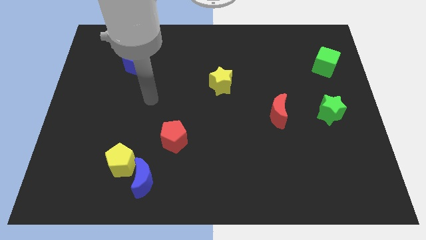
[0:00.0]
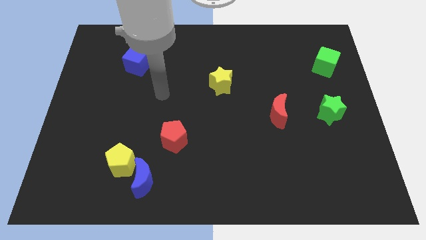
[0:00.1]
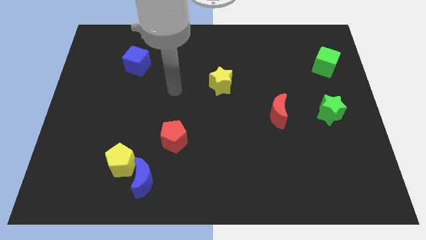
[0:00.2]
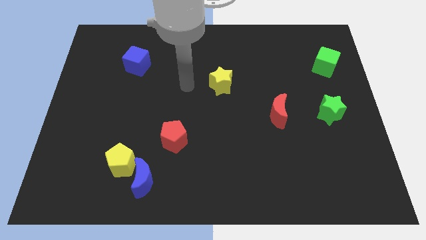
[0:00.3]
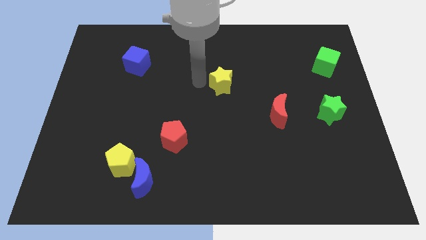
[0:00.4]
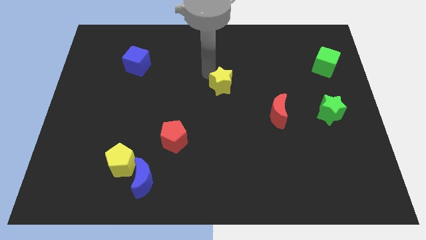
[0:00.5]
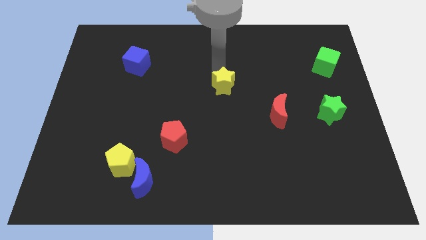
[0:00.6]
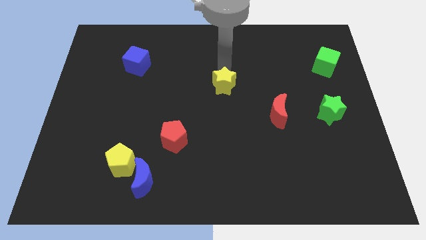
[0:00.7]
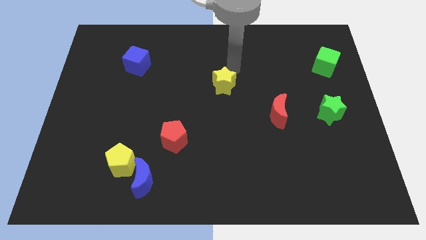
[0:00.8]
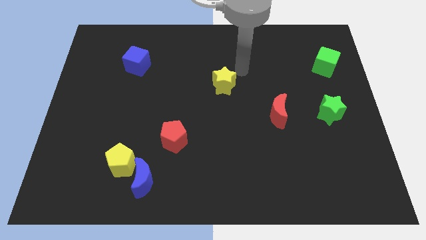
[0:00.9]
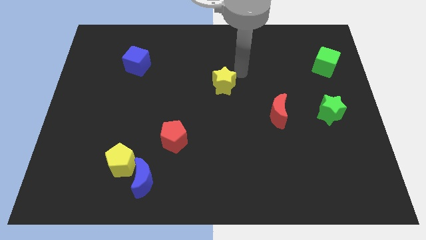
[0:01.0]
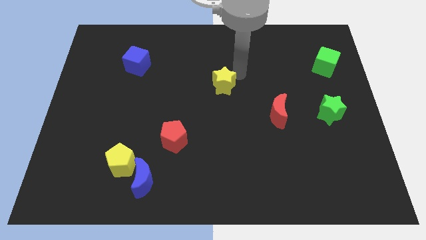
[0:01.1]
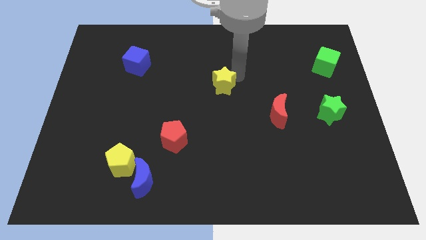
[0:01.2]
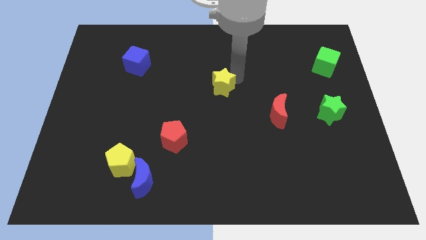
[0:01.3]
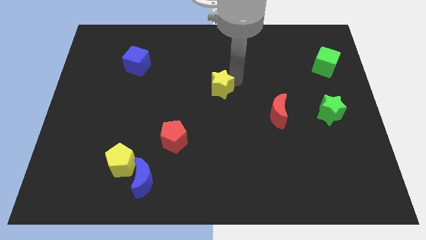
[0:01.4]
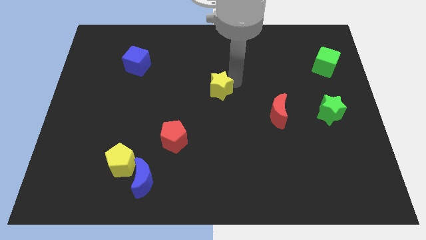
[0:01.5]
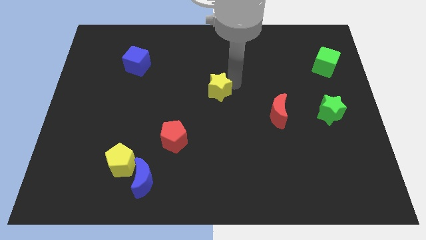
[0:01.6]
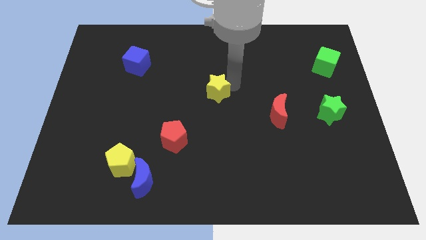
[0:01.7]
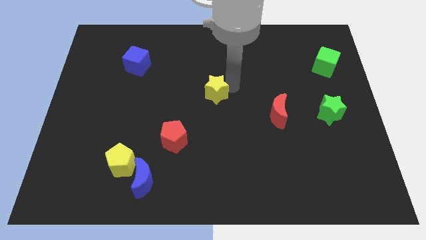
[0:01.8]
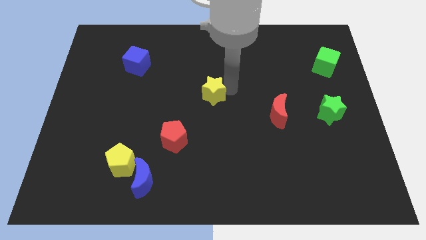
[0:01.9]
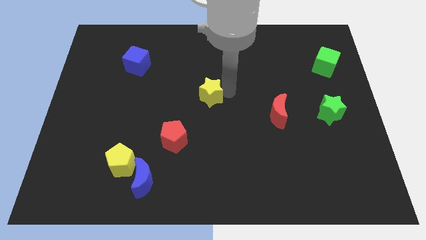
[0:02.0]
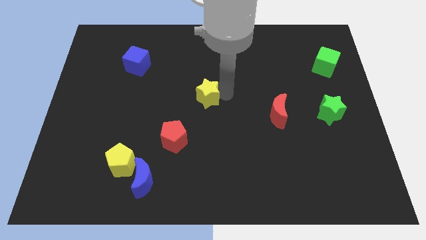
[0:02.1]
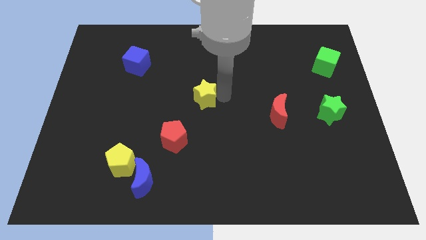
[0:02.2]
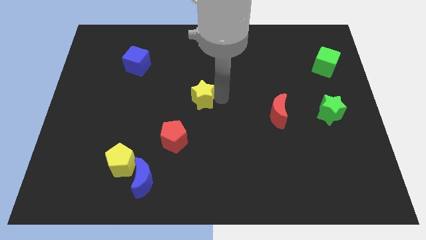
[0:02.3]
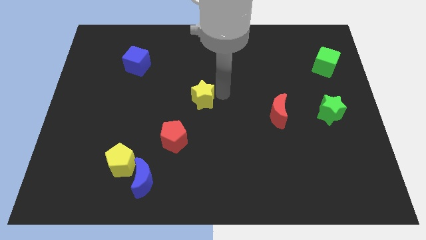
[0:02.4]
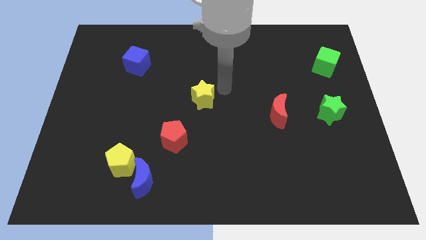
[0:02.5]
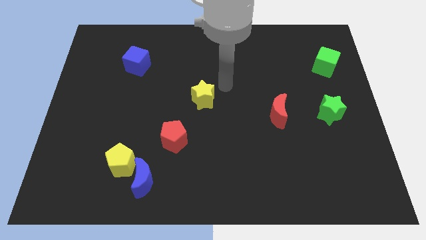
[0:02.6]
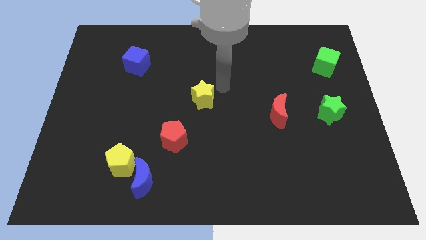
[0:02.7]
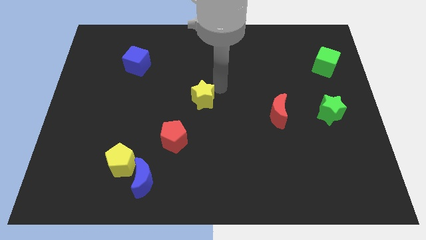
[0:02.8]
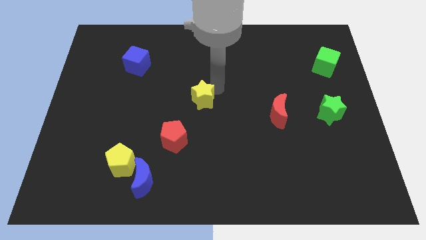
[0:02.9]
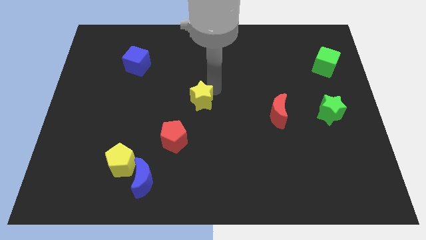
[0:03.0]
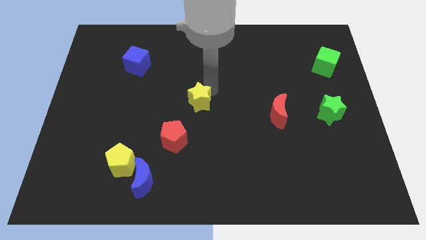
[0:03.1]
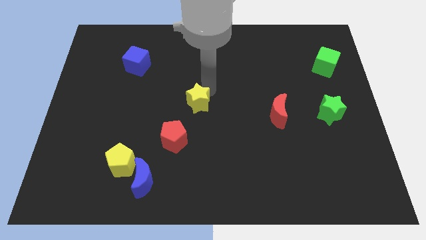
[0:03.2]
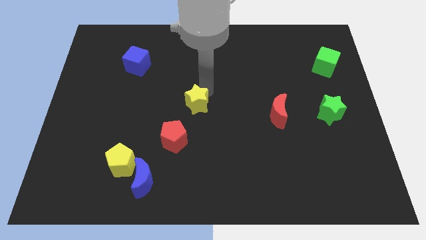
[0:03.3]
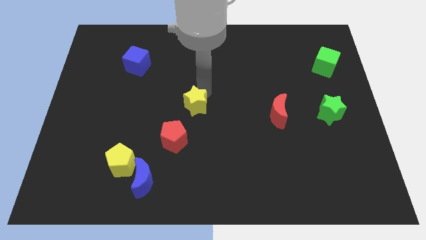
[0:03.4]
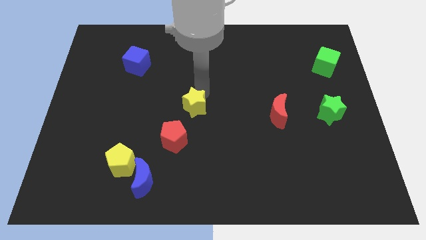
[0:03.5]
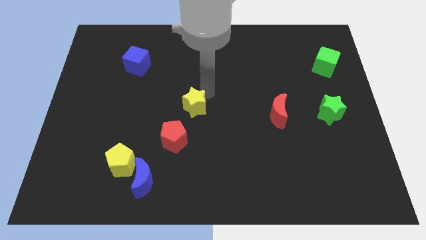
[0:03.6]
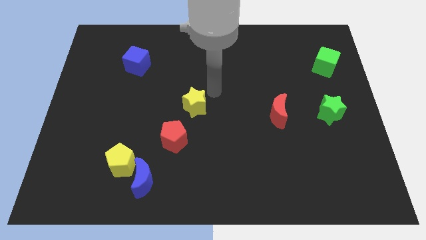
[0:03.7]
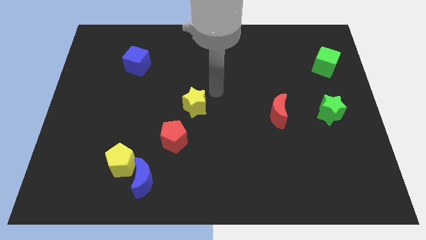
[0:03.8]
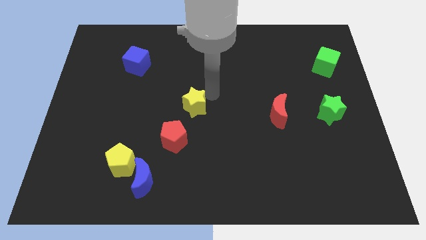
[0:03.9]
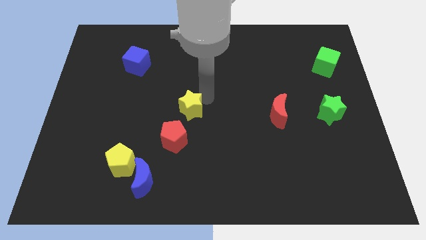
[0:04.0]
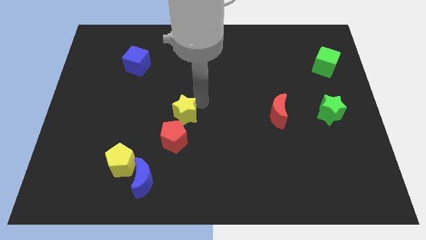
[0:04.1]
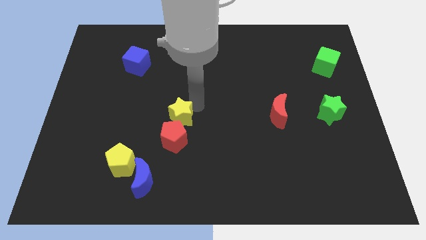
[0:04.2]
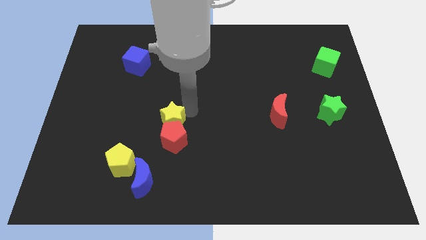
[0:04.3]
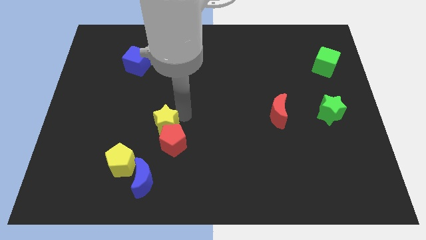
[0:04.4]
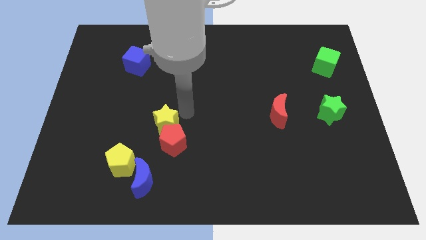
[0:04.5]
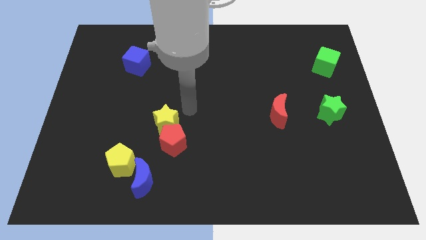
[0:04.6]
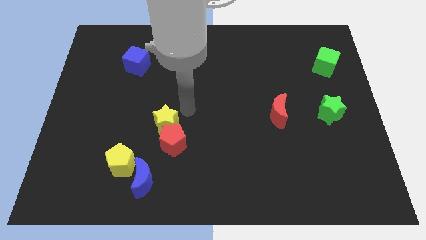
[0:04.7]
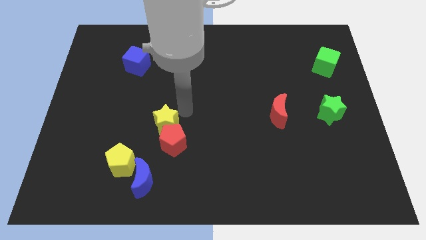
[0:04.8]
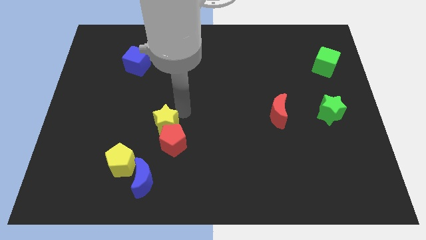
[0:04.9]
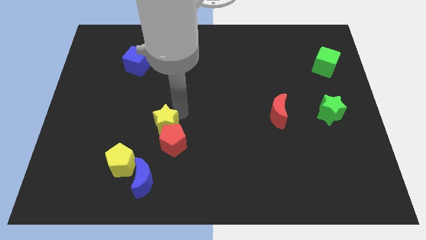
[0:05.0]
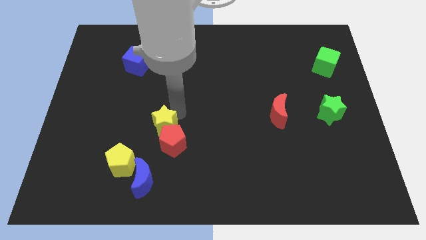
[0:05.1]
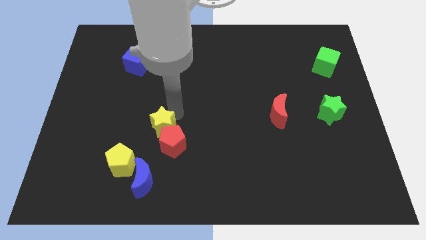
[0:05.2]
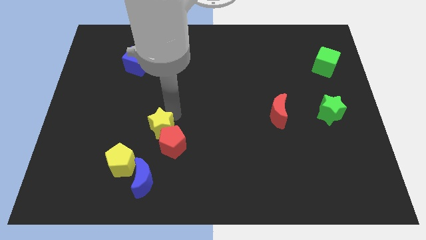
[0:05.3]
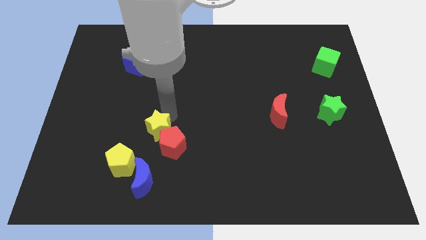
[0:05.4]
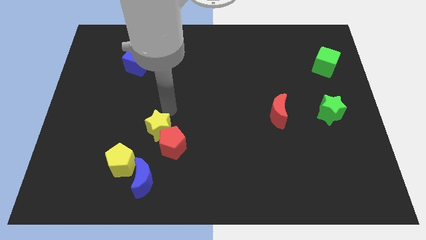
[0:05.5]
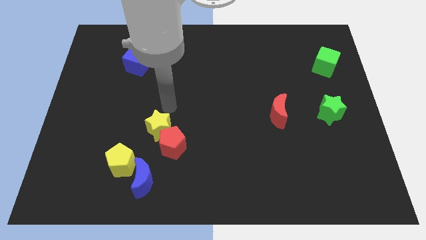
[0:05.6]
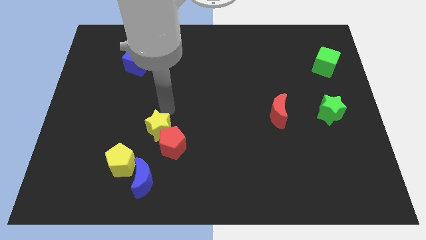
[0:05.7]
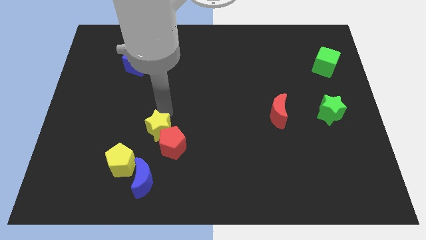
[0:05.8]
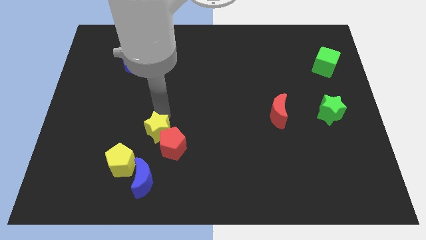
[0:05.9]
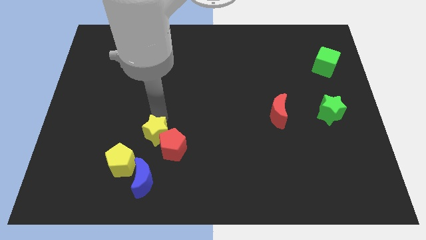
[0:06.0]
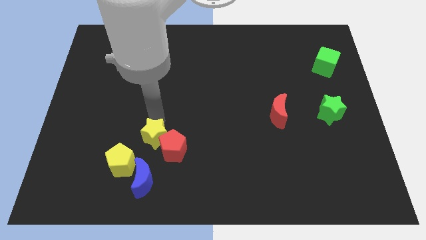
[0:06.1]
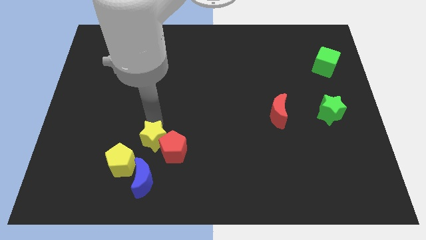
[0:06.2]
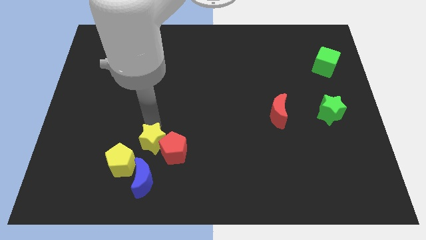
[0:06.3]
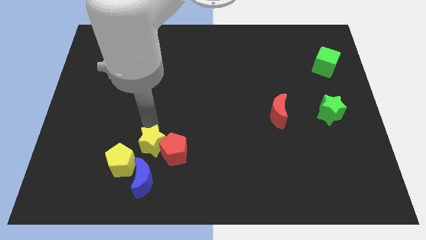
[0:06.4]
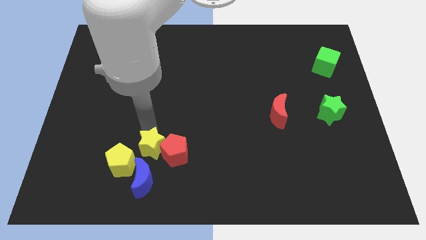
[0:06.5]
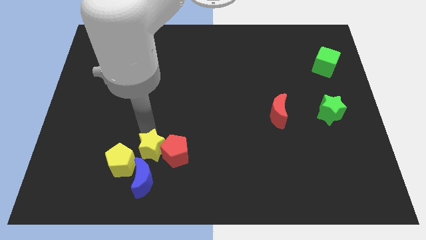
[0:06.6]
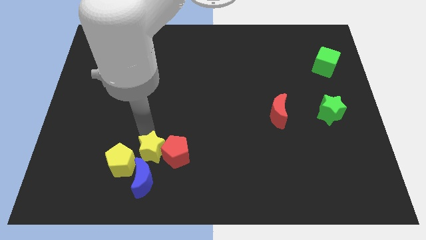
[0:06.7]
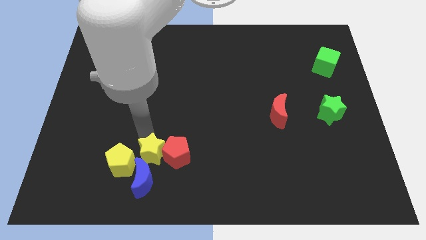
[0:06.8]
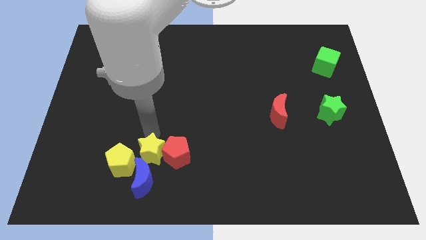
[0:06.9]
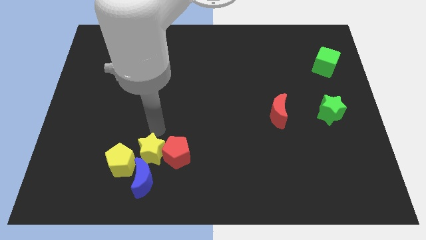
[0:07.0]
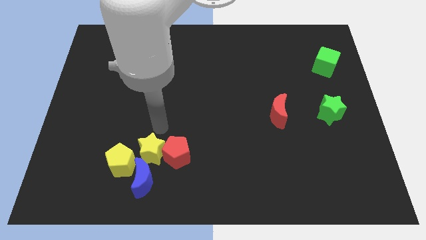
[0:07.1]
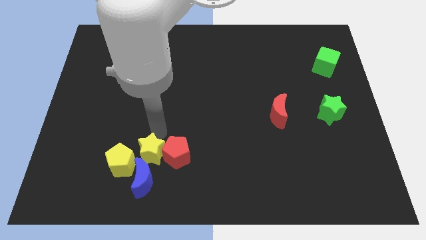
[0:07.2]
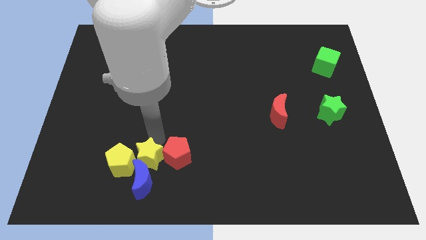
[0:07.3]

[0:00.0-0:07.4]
move the yellow star next to the blue moon

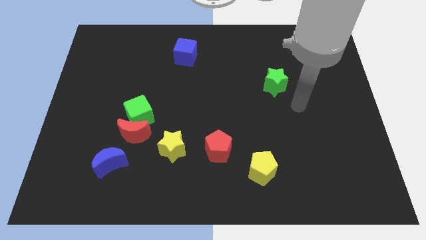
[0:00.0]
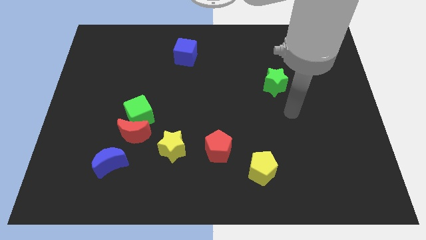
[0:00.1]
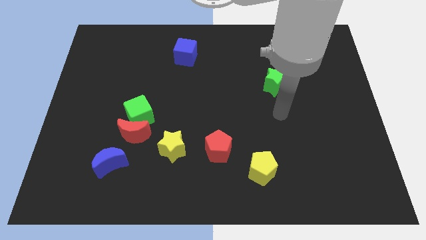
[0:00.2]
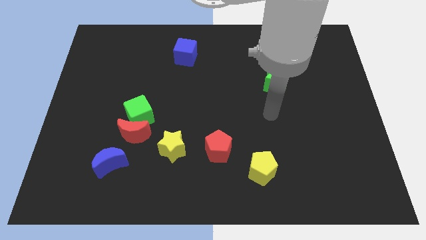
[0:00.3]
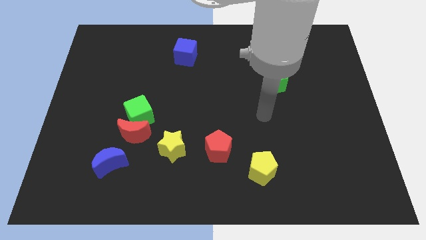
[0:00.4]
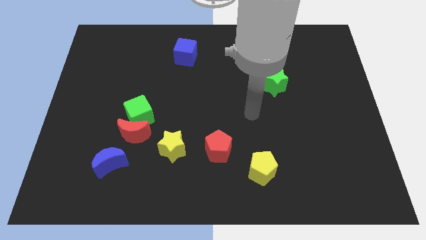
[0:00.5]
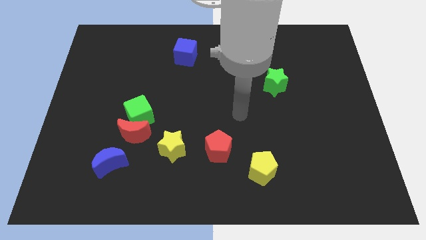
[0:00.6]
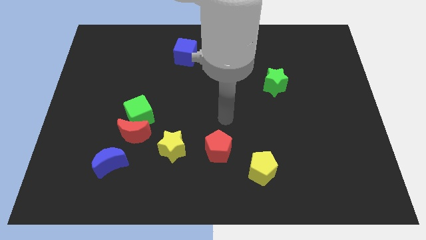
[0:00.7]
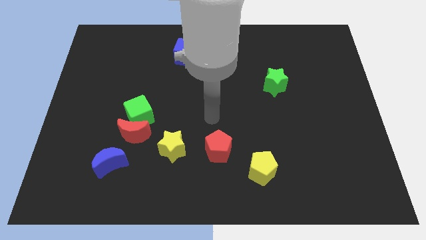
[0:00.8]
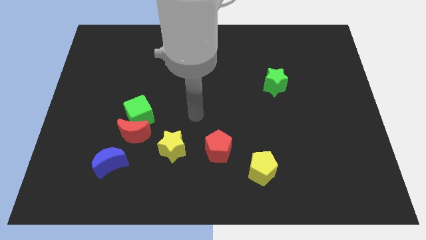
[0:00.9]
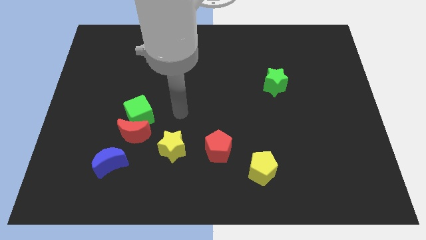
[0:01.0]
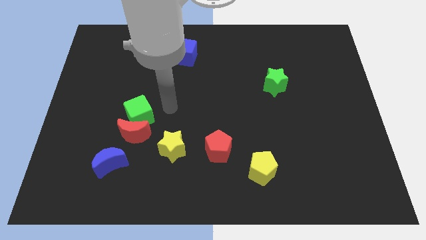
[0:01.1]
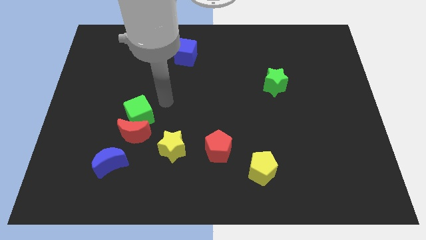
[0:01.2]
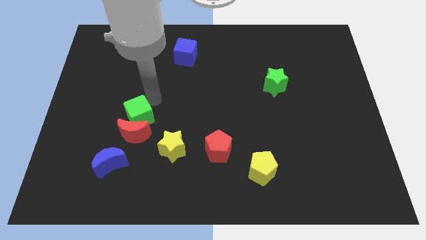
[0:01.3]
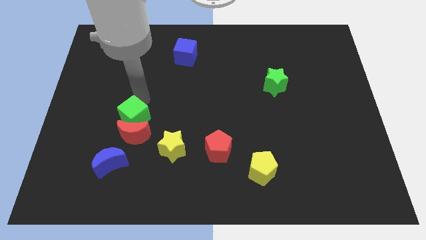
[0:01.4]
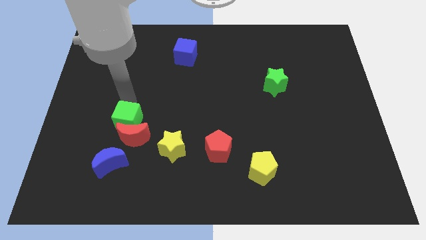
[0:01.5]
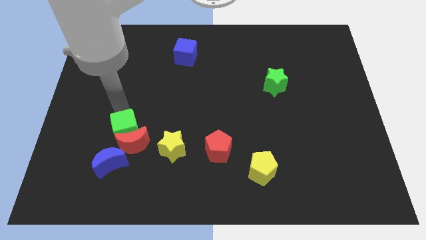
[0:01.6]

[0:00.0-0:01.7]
put the blue moon close to the red moon
